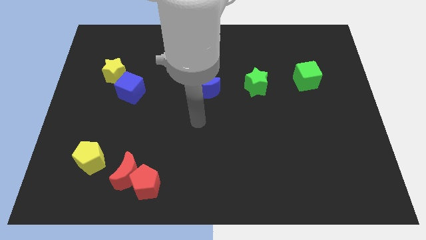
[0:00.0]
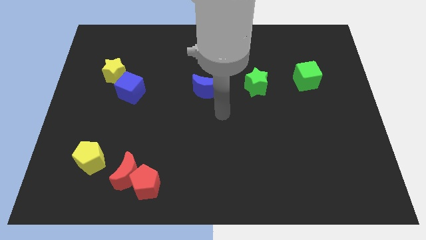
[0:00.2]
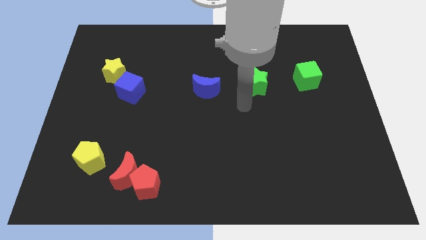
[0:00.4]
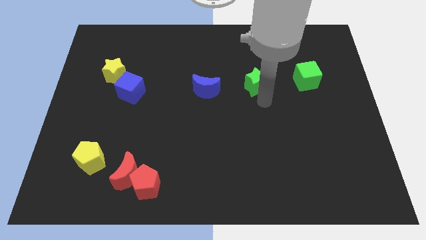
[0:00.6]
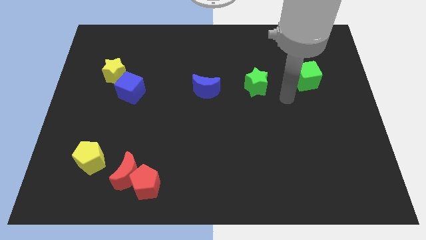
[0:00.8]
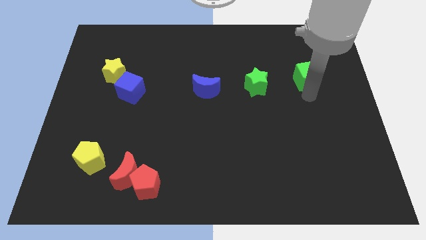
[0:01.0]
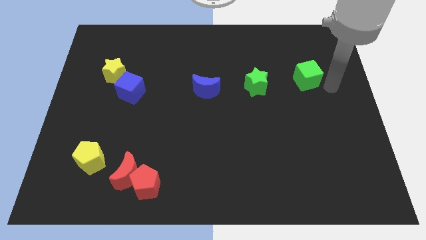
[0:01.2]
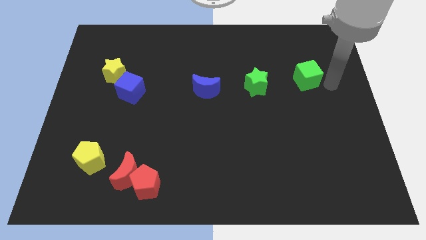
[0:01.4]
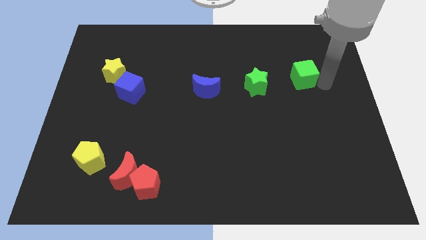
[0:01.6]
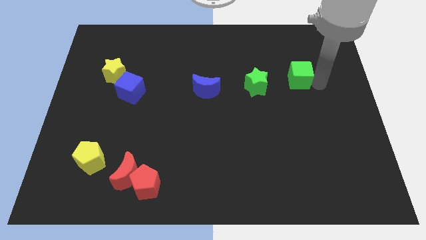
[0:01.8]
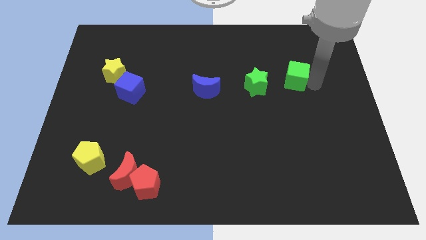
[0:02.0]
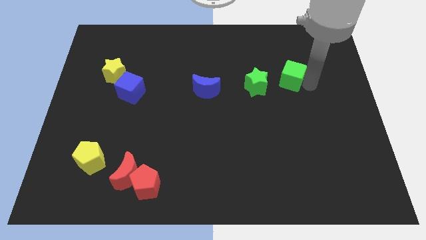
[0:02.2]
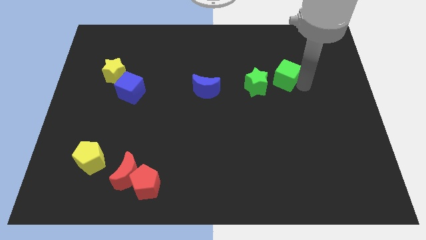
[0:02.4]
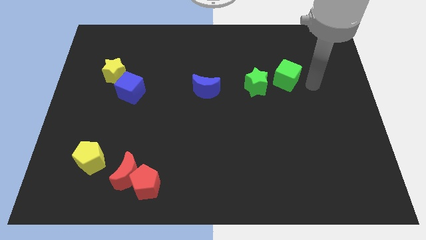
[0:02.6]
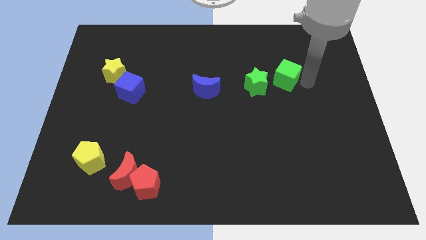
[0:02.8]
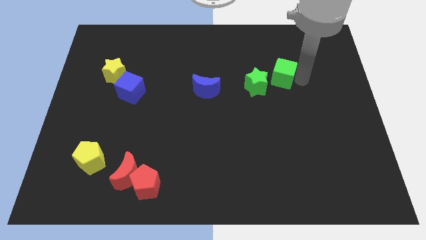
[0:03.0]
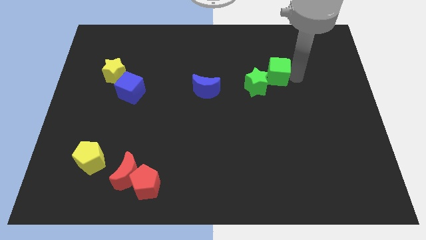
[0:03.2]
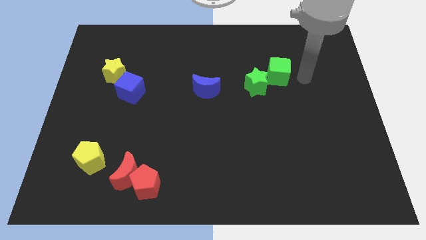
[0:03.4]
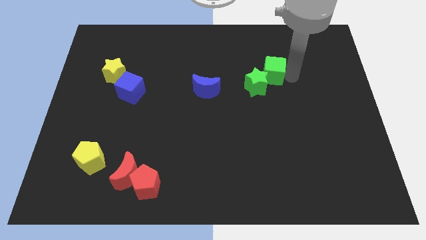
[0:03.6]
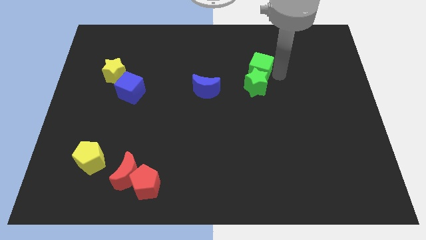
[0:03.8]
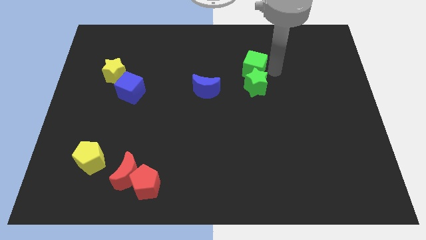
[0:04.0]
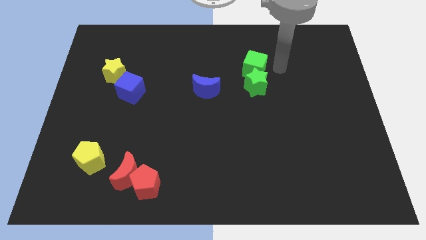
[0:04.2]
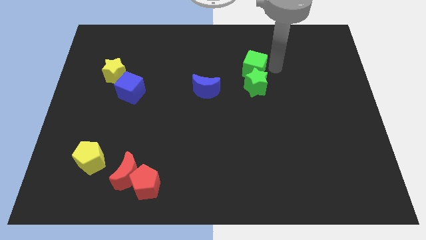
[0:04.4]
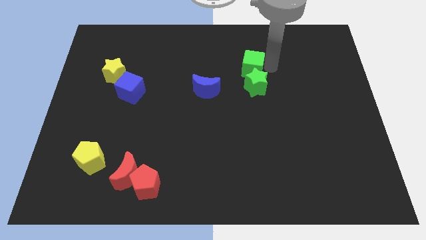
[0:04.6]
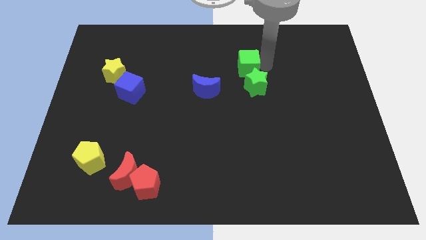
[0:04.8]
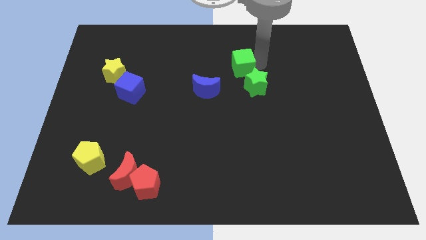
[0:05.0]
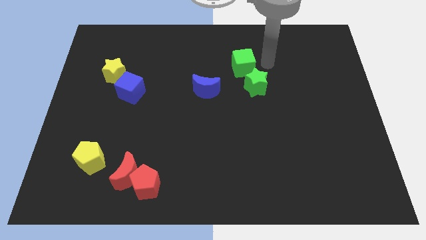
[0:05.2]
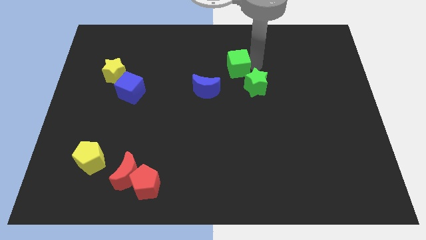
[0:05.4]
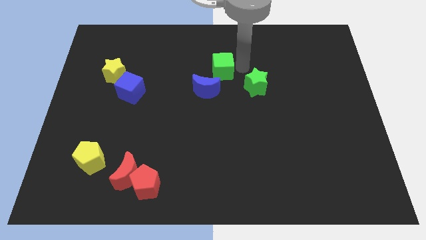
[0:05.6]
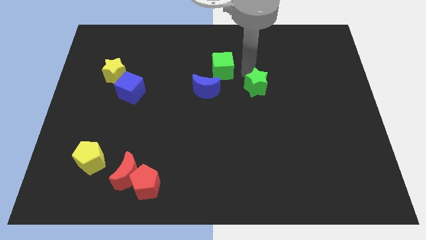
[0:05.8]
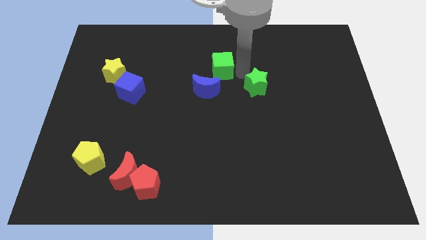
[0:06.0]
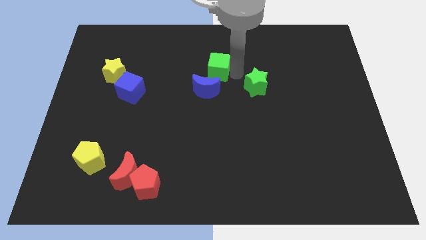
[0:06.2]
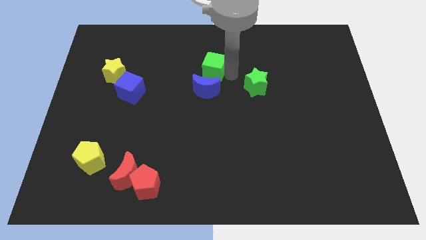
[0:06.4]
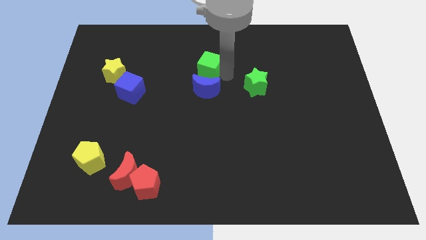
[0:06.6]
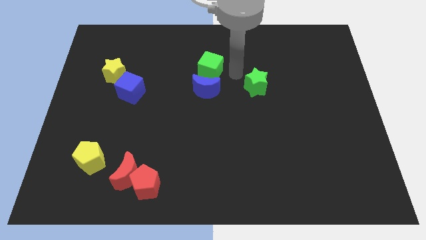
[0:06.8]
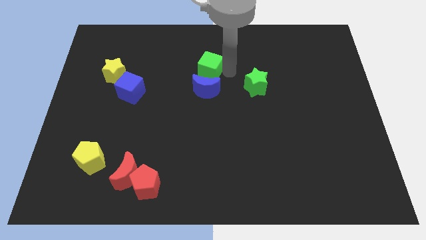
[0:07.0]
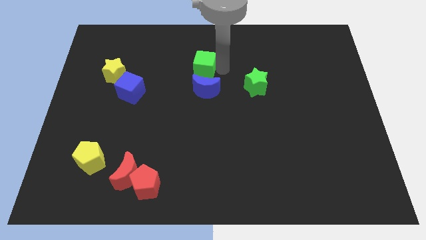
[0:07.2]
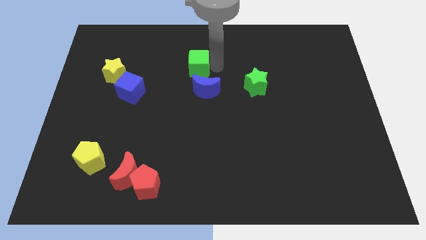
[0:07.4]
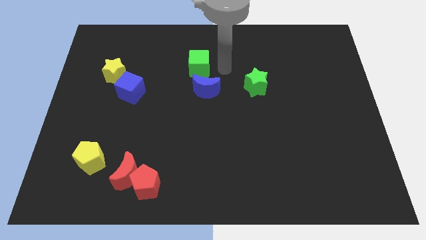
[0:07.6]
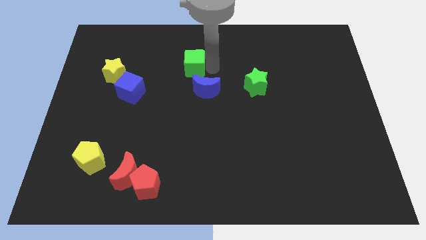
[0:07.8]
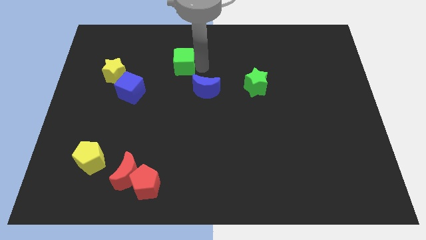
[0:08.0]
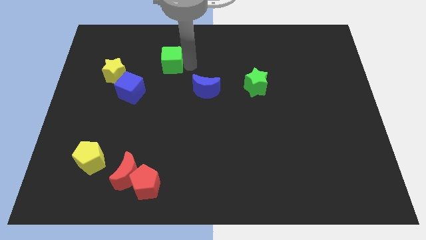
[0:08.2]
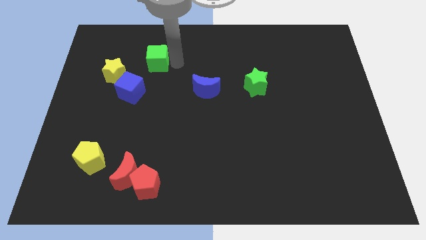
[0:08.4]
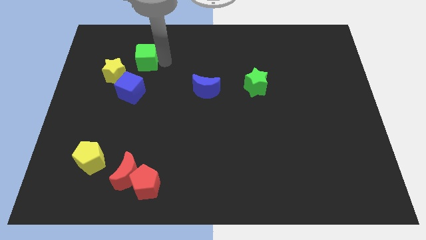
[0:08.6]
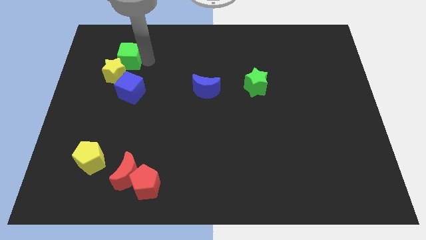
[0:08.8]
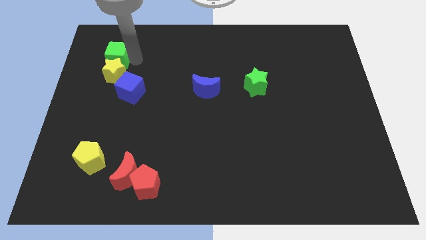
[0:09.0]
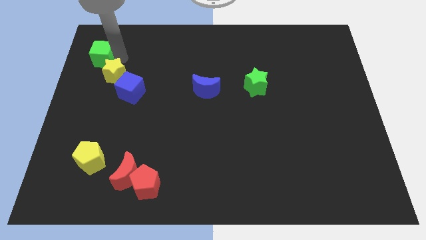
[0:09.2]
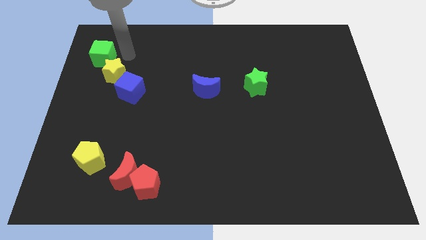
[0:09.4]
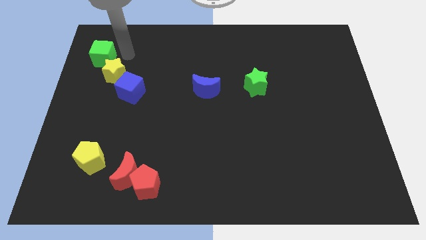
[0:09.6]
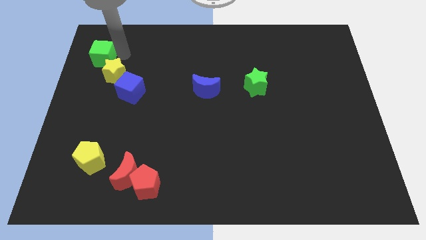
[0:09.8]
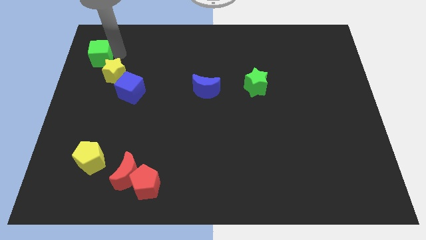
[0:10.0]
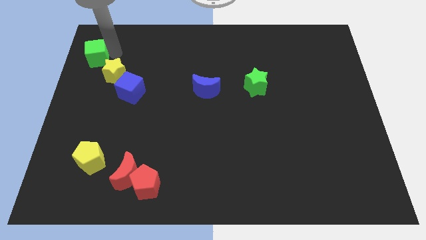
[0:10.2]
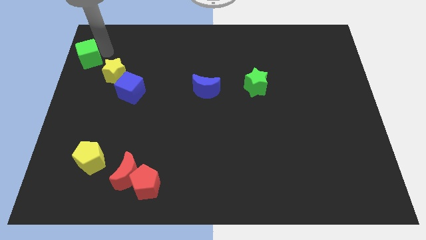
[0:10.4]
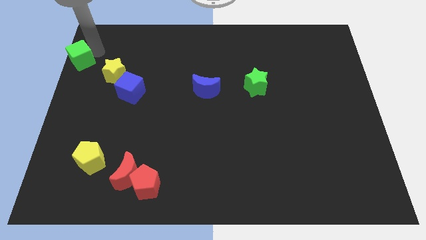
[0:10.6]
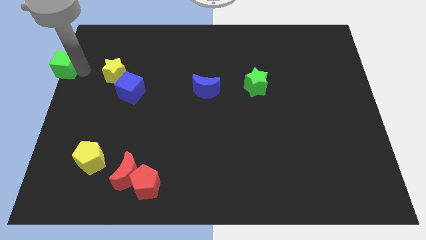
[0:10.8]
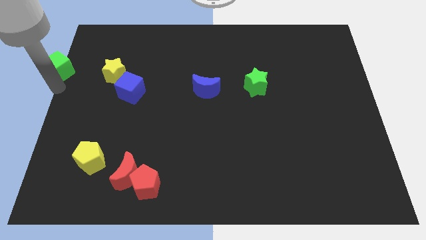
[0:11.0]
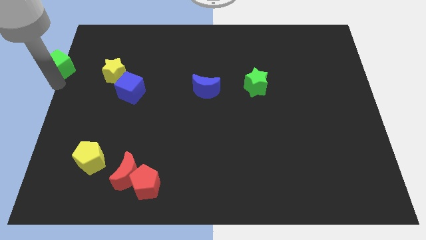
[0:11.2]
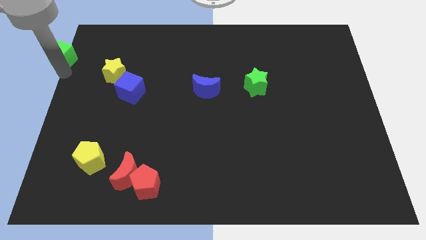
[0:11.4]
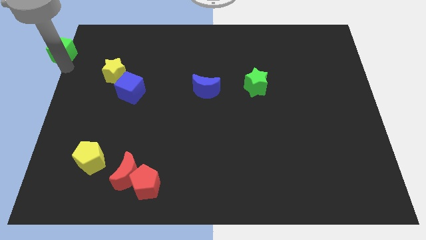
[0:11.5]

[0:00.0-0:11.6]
move the green cube to the top left
